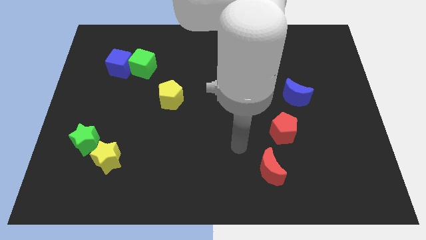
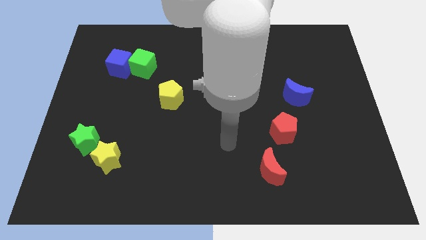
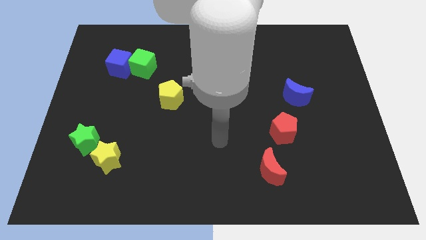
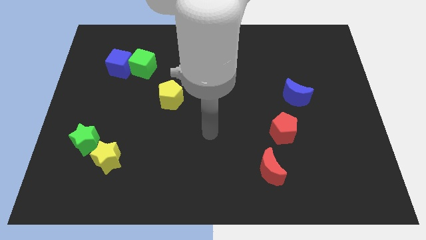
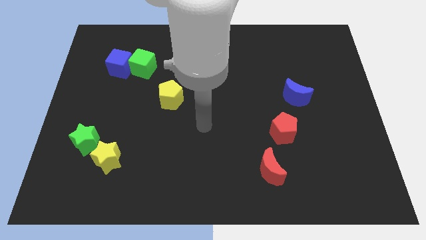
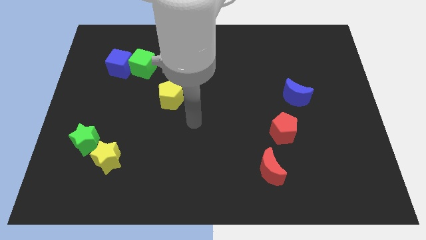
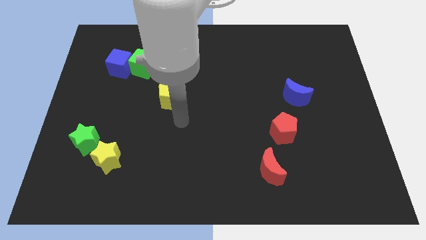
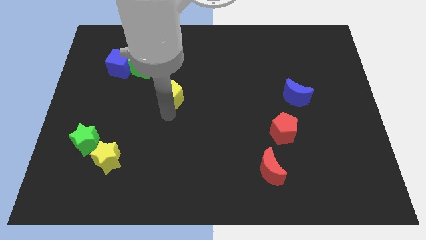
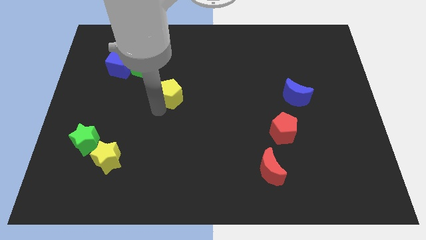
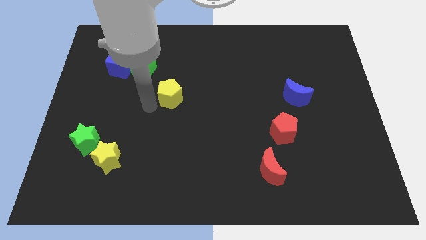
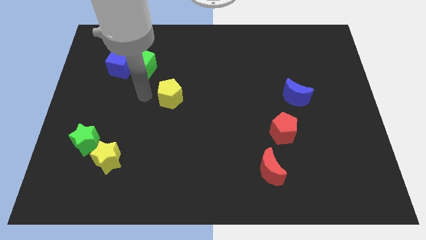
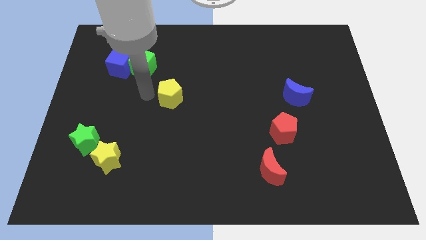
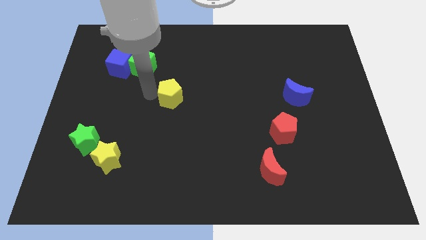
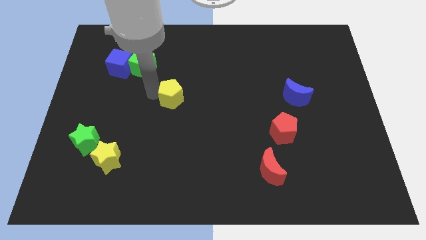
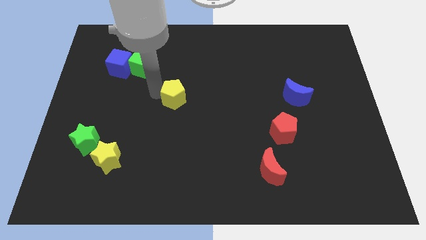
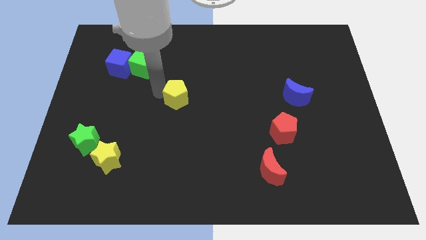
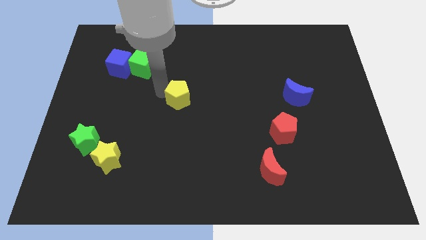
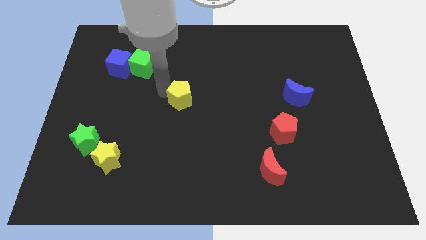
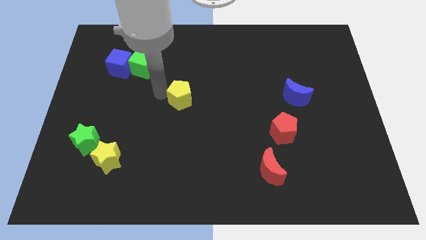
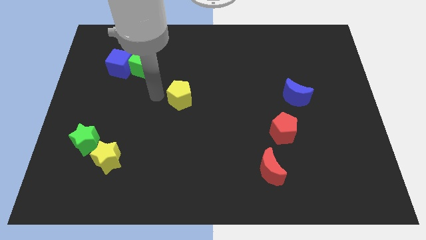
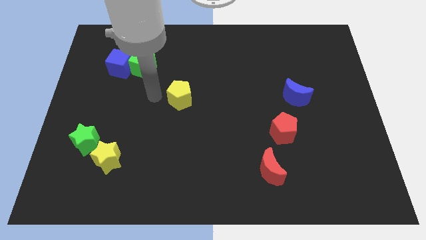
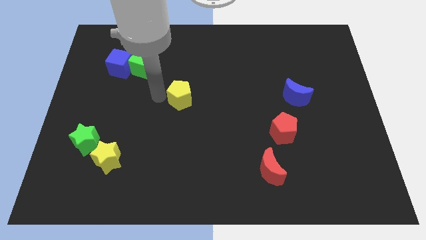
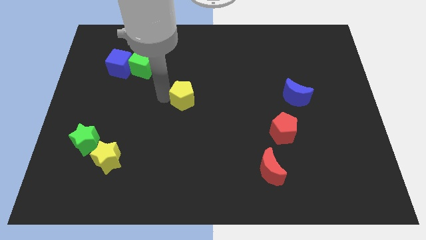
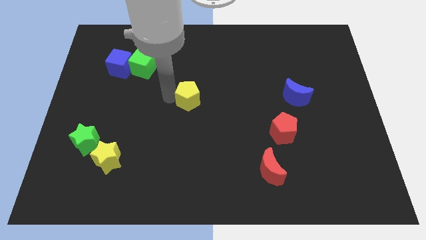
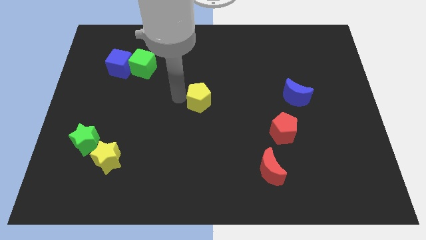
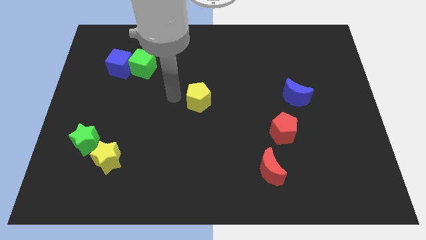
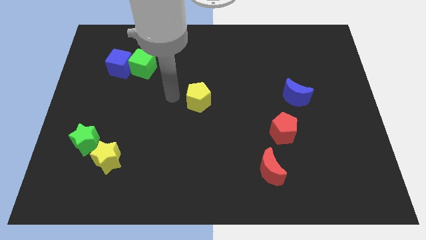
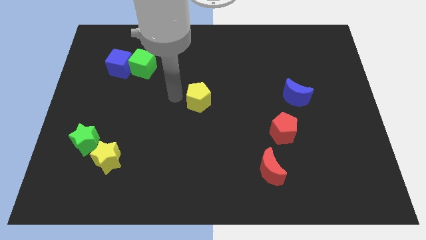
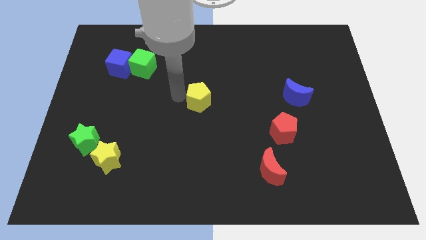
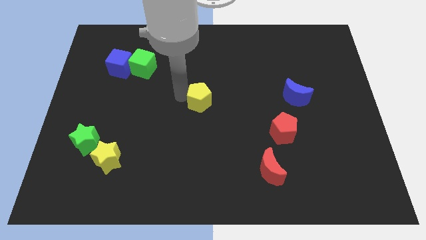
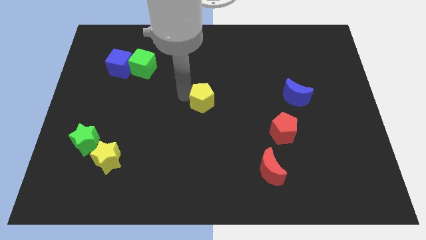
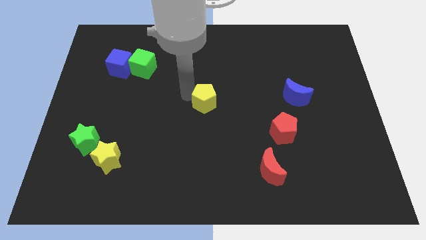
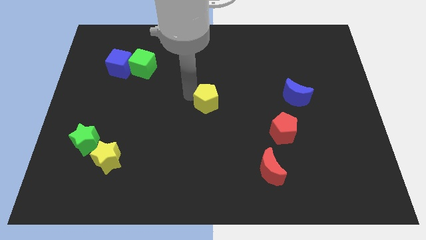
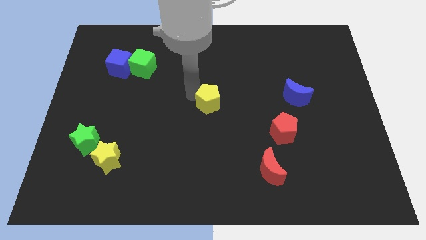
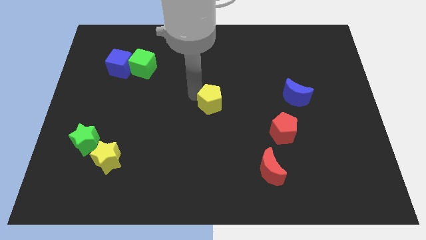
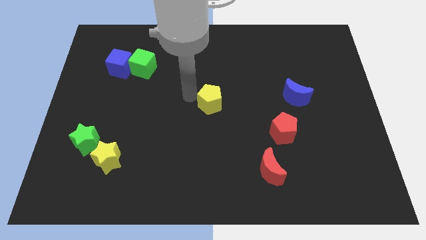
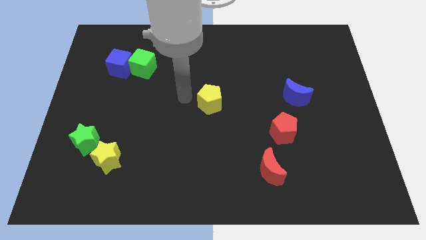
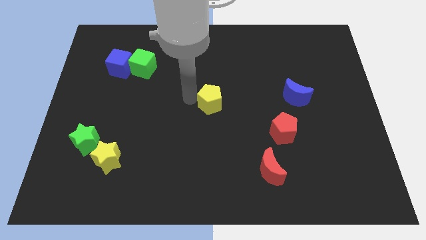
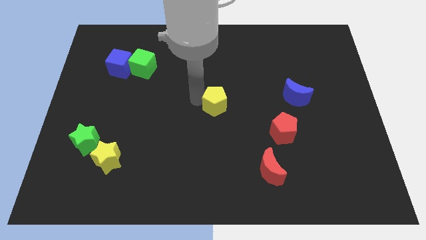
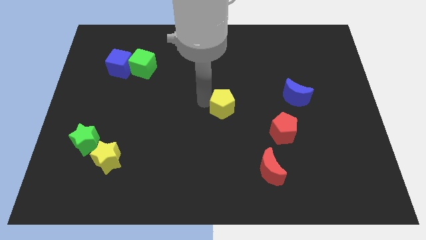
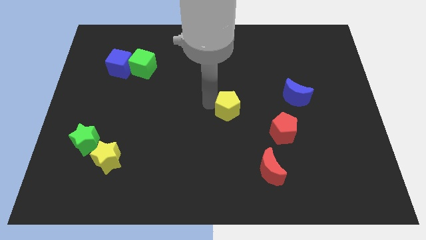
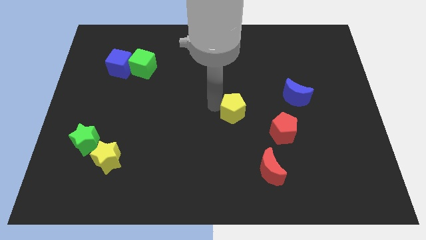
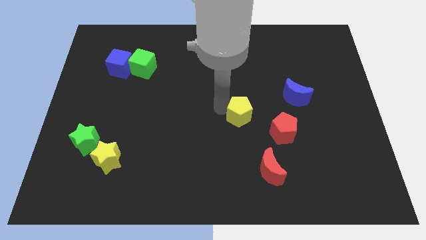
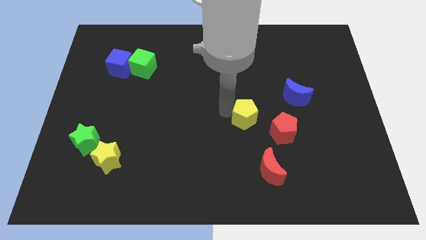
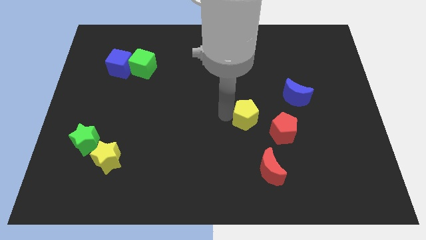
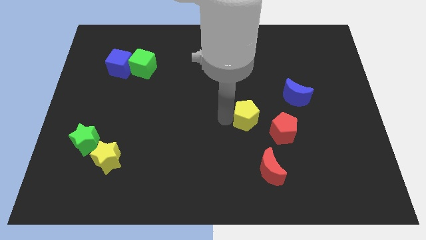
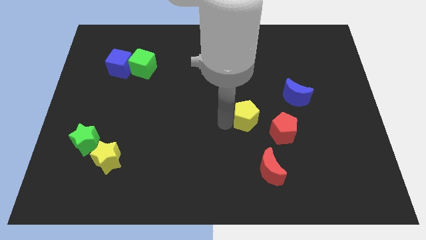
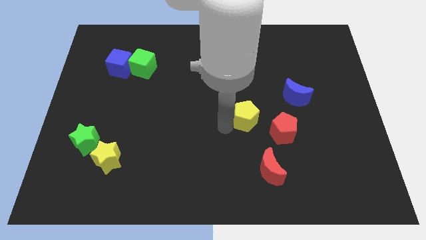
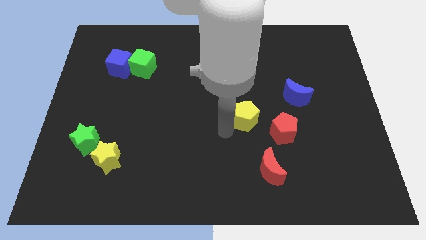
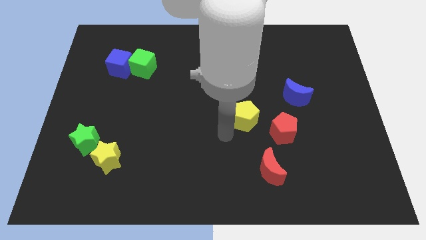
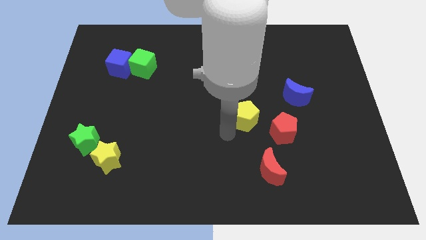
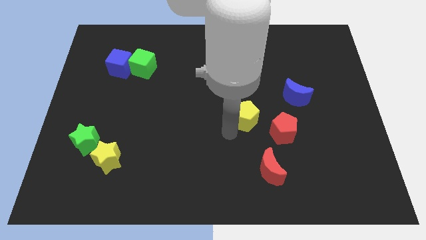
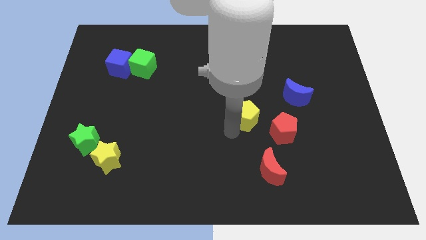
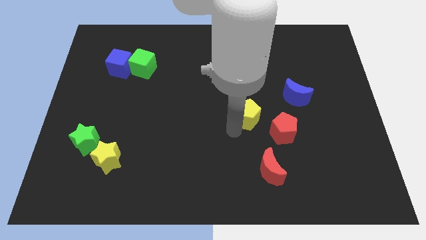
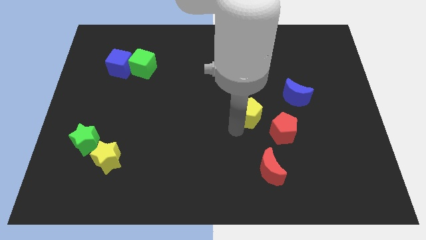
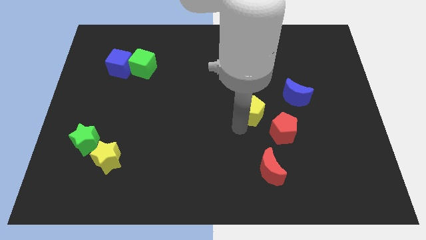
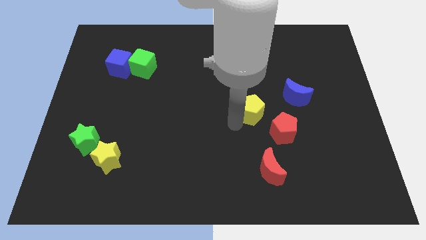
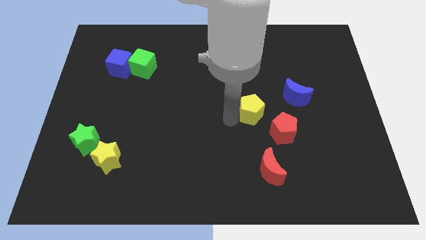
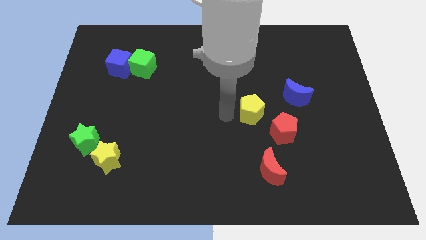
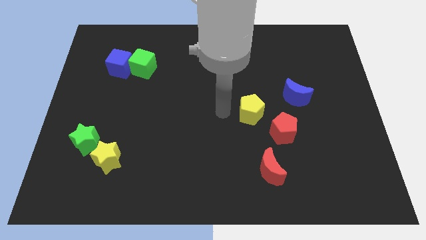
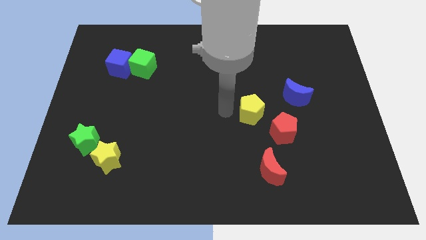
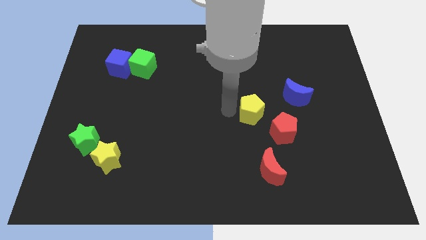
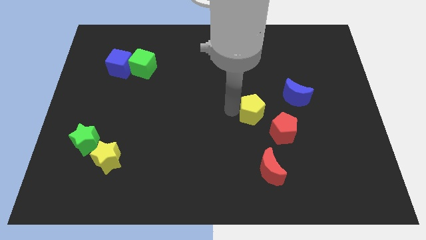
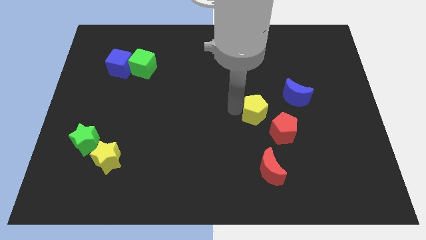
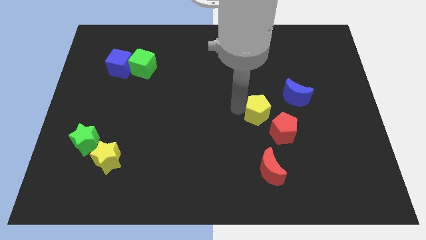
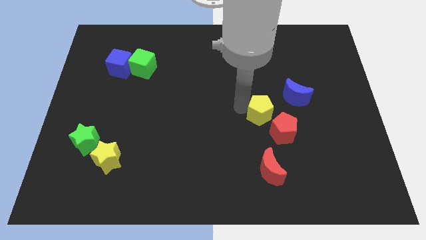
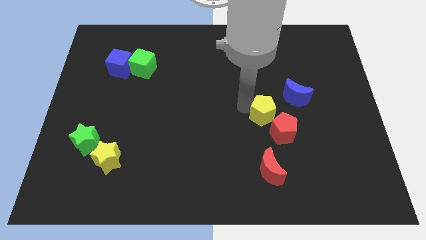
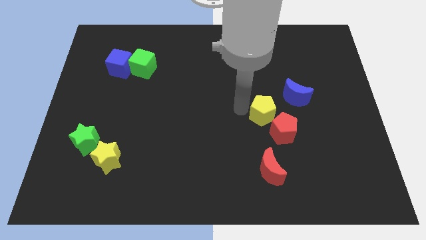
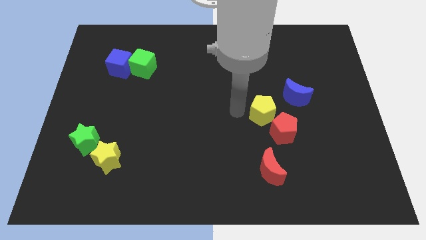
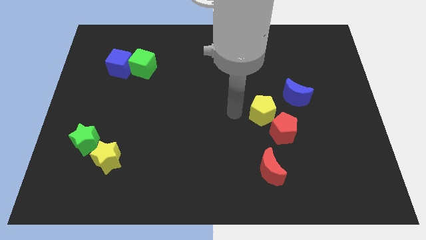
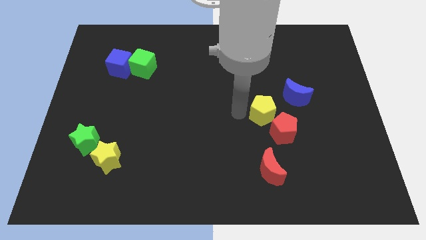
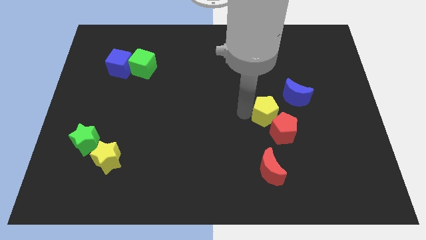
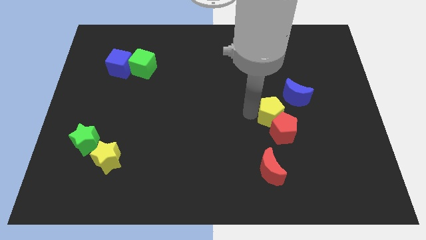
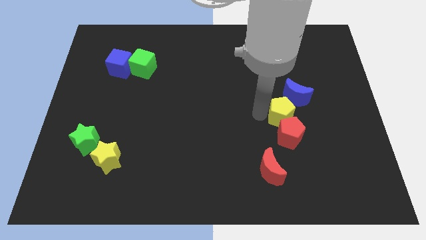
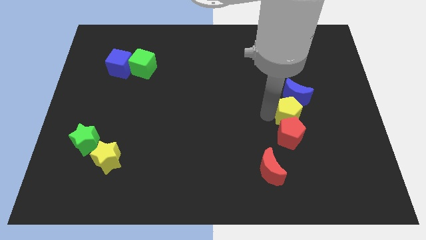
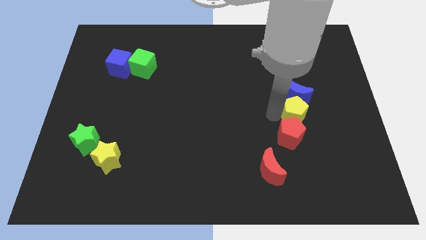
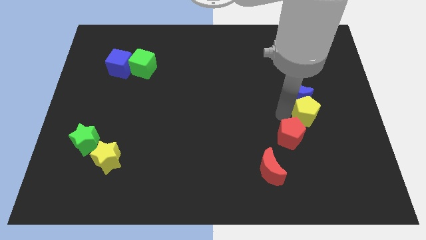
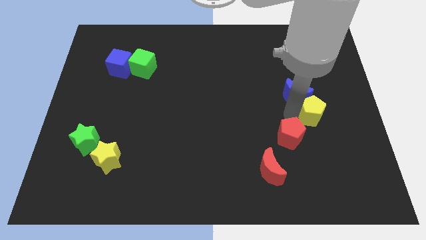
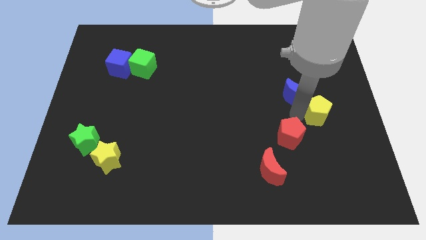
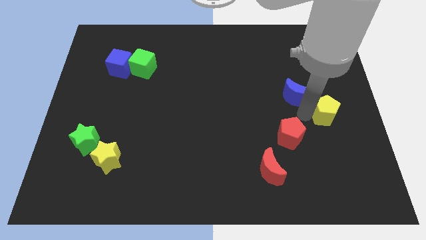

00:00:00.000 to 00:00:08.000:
push the yellow pentagon to the right side of the board
